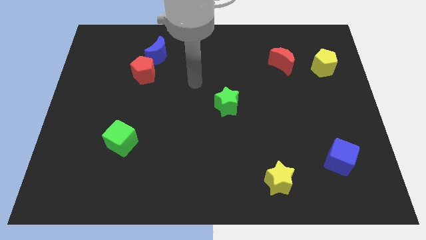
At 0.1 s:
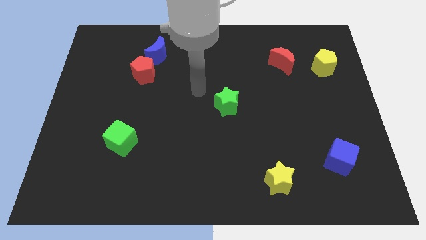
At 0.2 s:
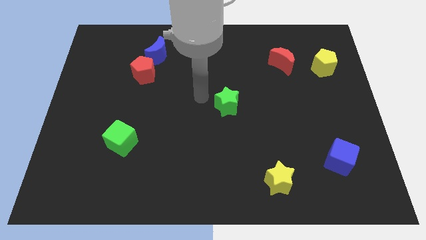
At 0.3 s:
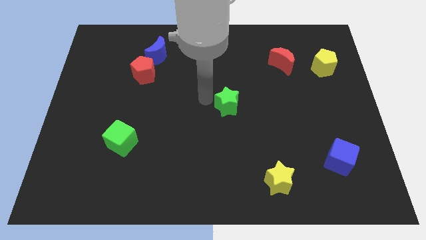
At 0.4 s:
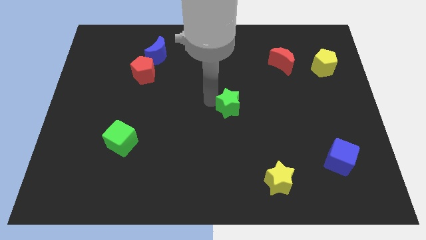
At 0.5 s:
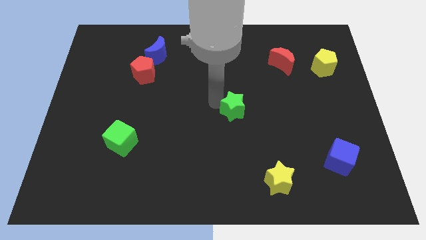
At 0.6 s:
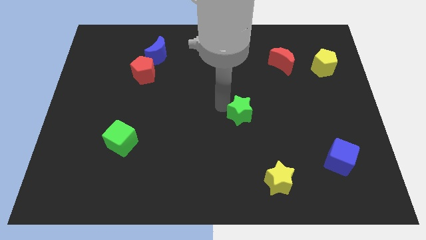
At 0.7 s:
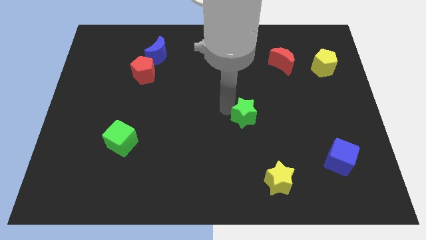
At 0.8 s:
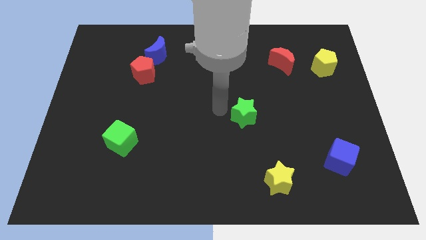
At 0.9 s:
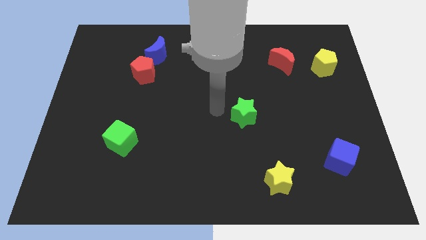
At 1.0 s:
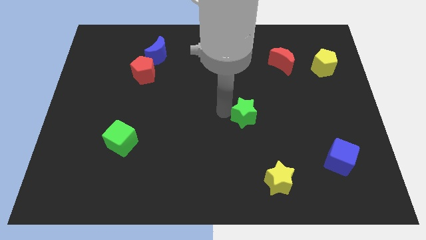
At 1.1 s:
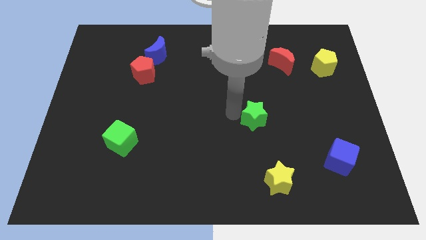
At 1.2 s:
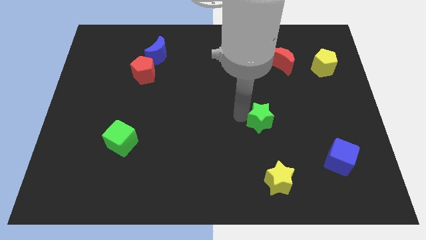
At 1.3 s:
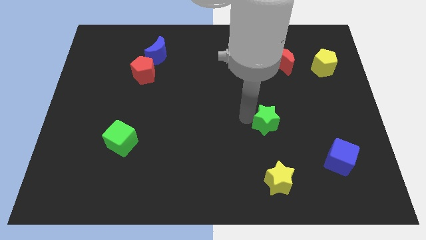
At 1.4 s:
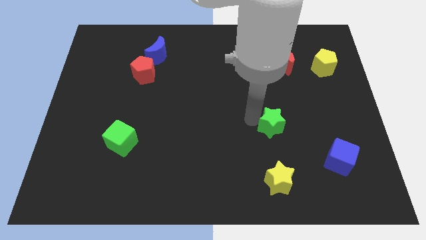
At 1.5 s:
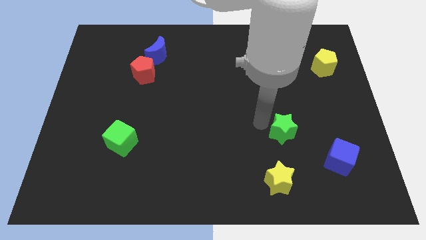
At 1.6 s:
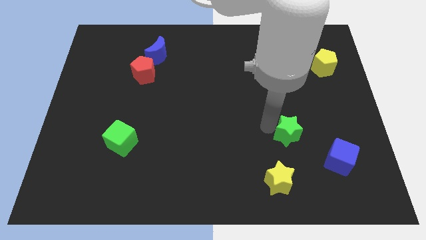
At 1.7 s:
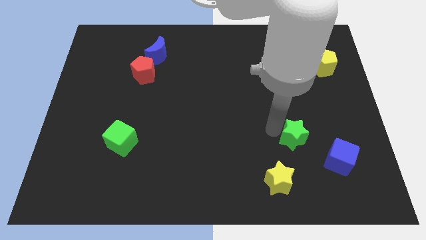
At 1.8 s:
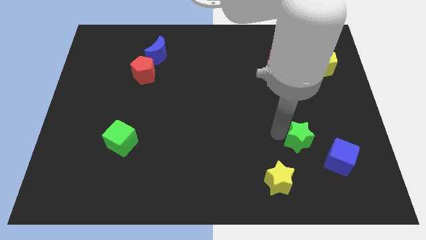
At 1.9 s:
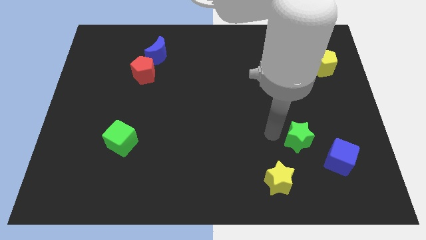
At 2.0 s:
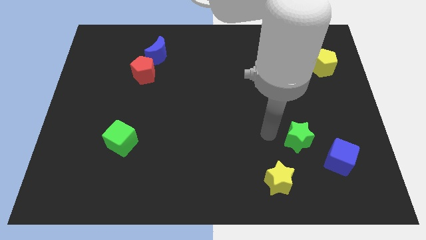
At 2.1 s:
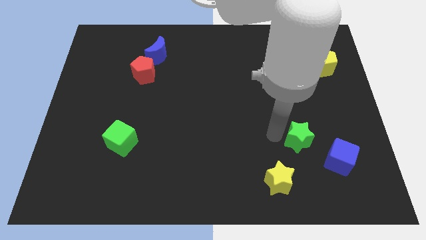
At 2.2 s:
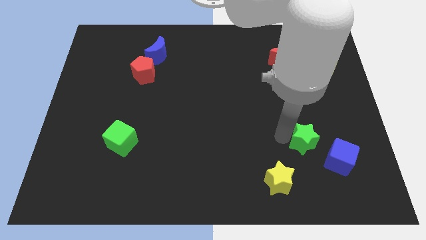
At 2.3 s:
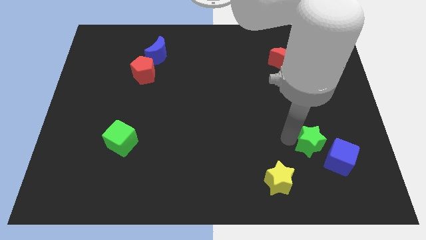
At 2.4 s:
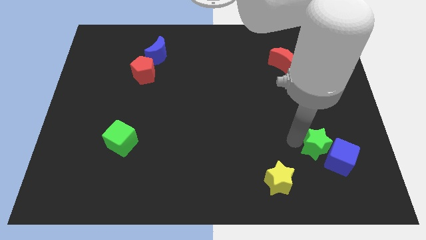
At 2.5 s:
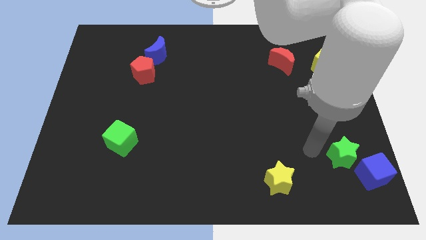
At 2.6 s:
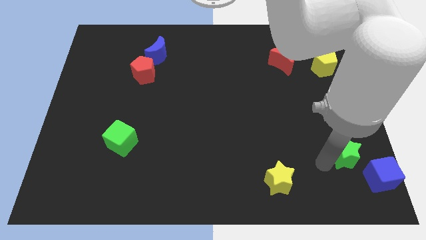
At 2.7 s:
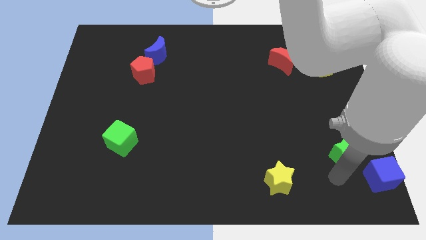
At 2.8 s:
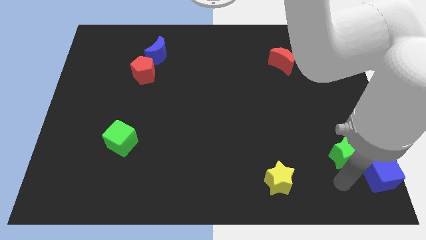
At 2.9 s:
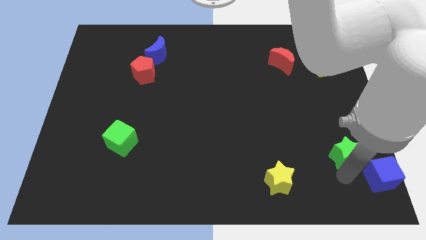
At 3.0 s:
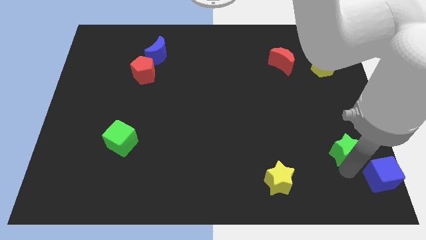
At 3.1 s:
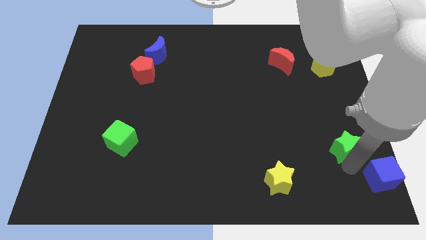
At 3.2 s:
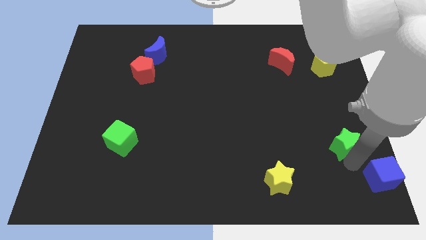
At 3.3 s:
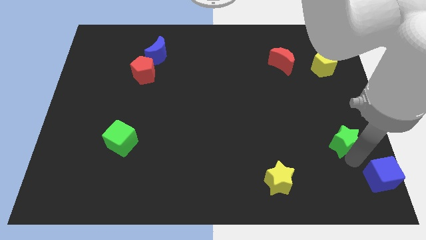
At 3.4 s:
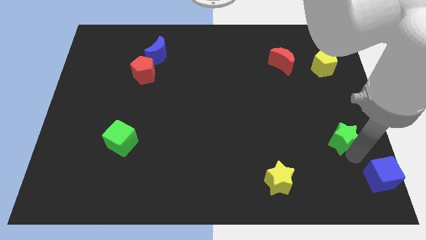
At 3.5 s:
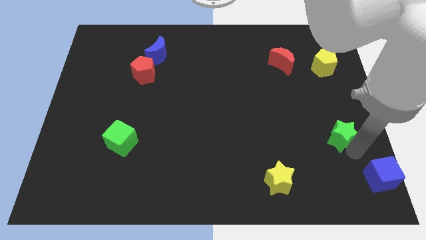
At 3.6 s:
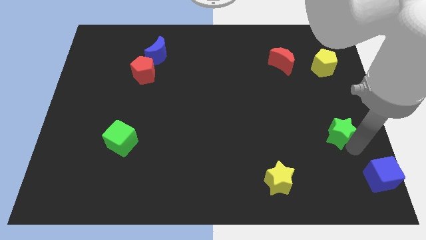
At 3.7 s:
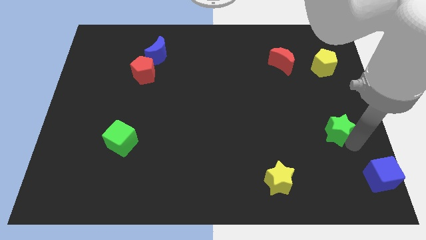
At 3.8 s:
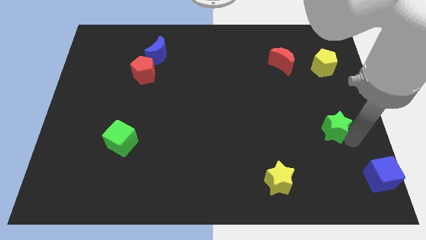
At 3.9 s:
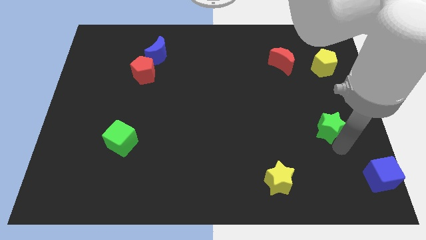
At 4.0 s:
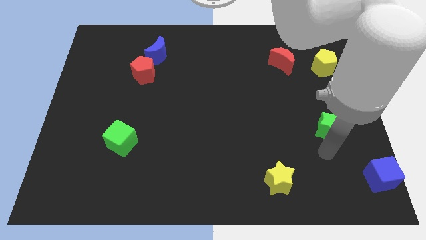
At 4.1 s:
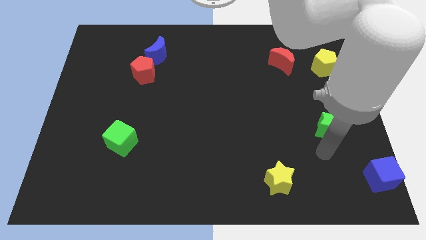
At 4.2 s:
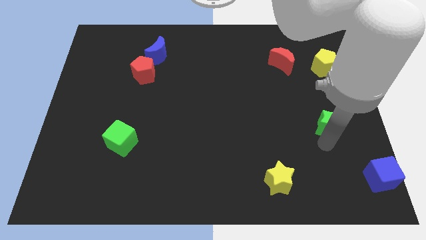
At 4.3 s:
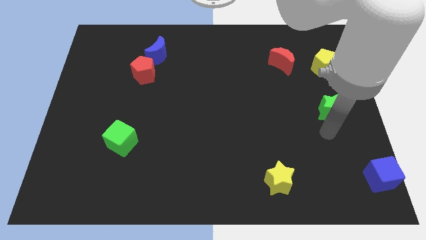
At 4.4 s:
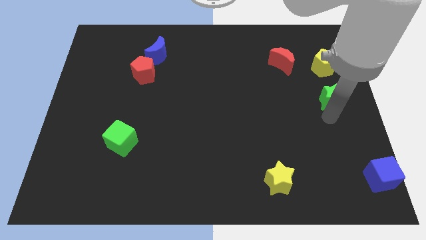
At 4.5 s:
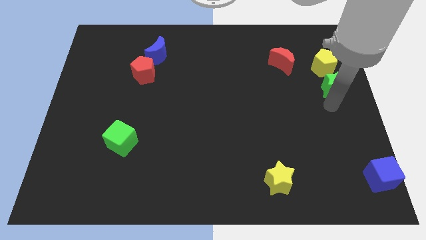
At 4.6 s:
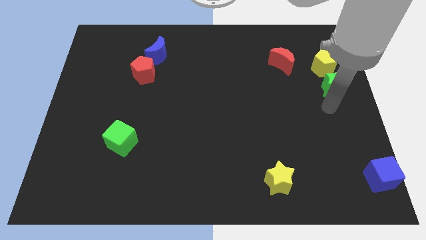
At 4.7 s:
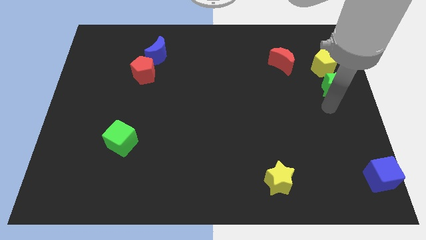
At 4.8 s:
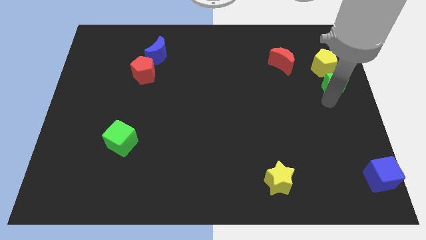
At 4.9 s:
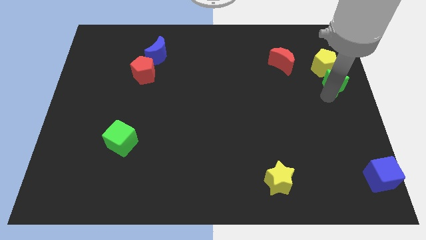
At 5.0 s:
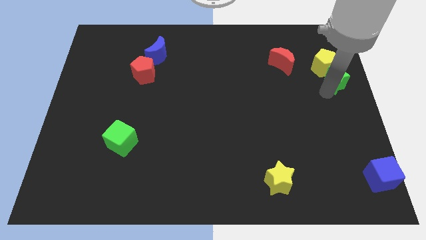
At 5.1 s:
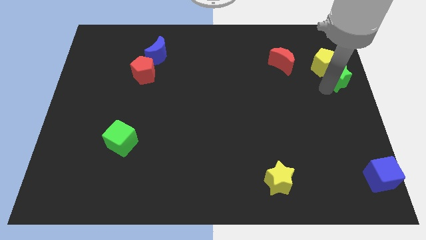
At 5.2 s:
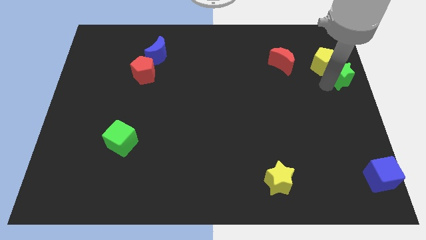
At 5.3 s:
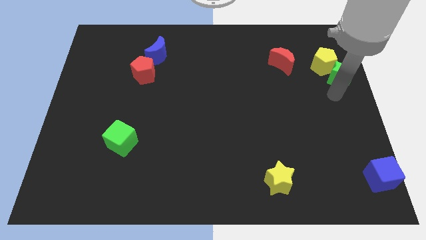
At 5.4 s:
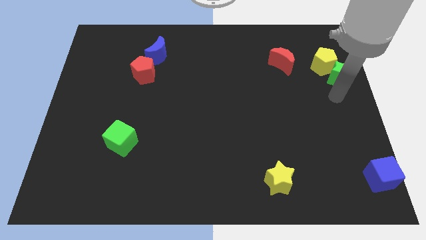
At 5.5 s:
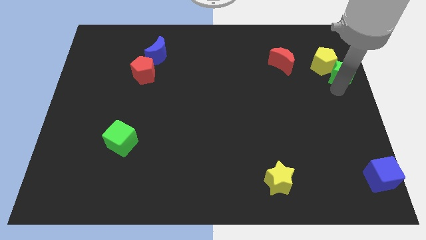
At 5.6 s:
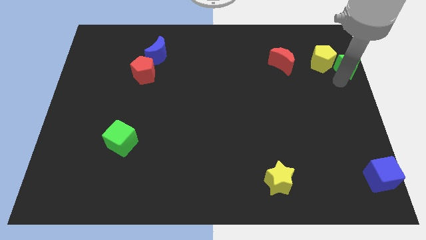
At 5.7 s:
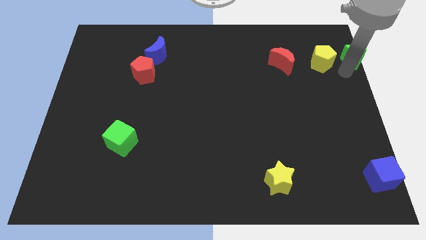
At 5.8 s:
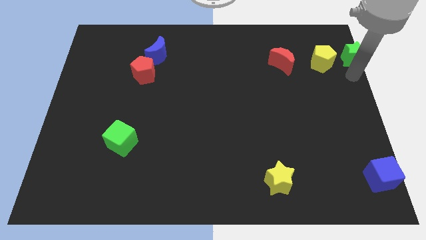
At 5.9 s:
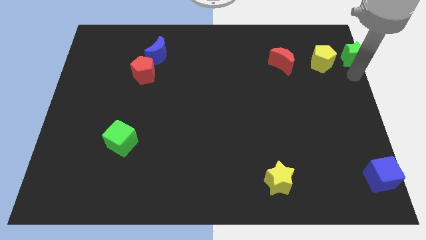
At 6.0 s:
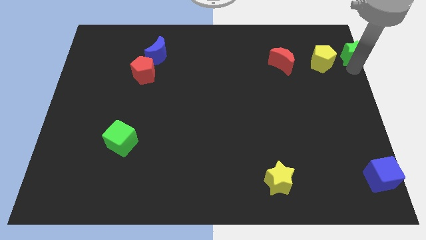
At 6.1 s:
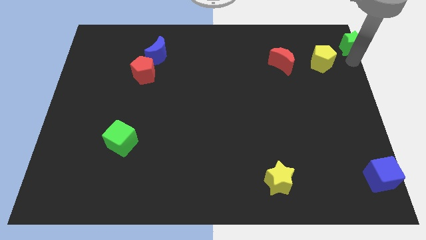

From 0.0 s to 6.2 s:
put the green star to the top right corner
